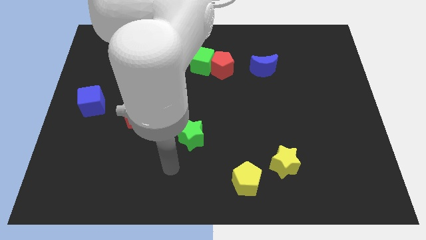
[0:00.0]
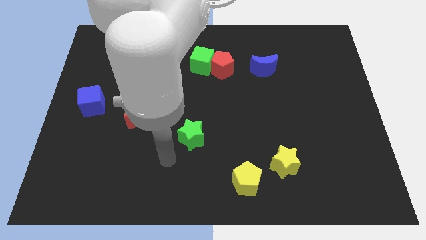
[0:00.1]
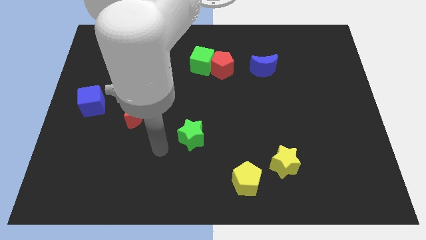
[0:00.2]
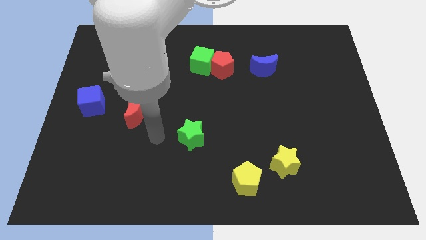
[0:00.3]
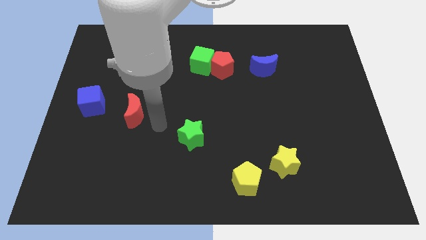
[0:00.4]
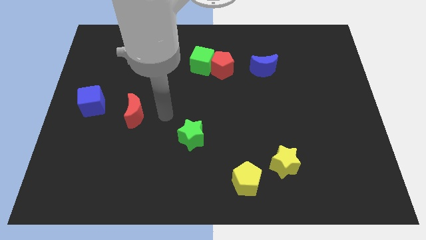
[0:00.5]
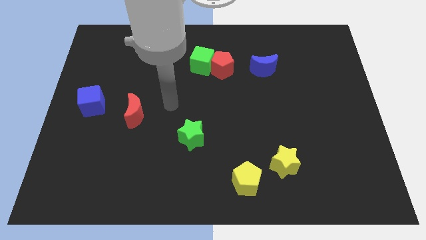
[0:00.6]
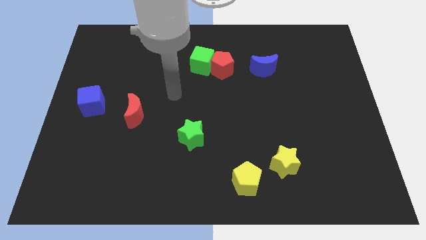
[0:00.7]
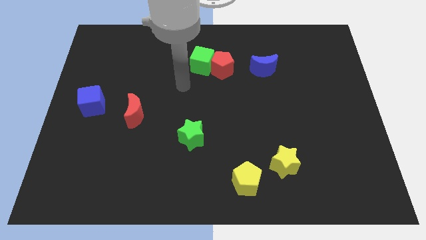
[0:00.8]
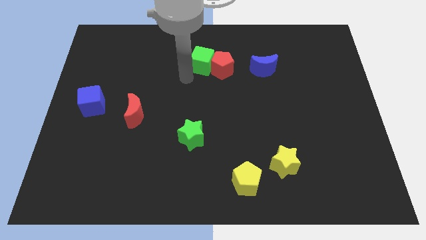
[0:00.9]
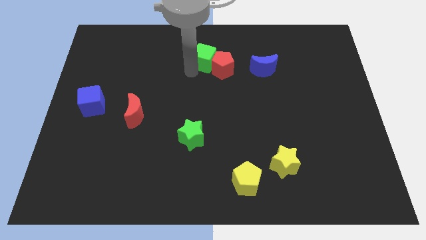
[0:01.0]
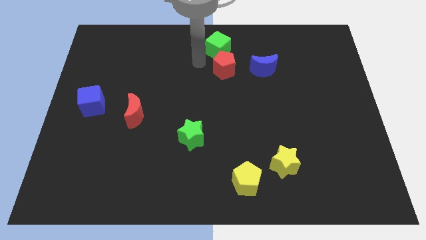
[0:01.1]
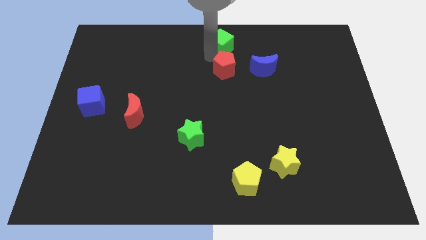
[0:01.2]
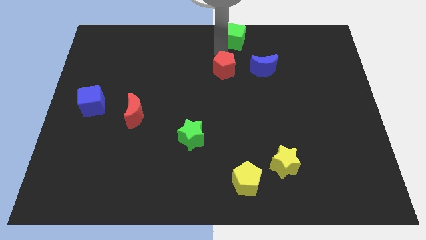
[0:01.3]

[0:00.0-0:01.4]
move the red pentagon away from the green cube

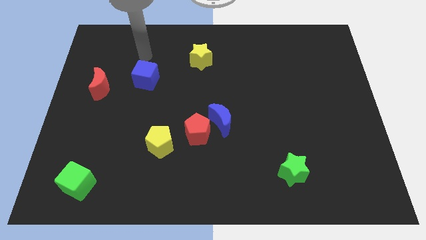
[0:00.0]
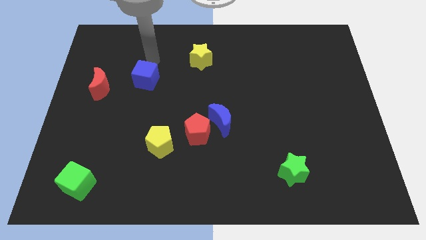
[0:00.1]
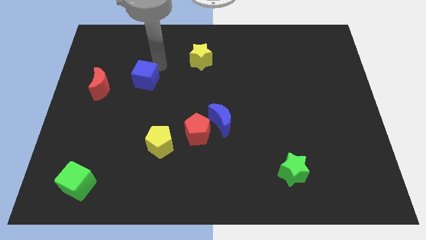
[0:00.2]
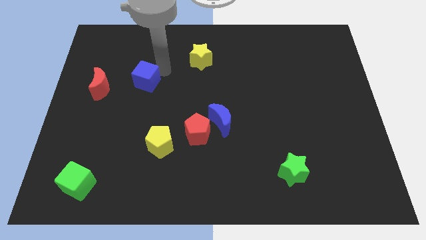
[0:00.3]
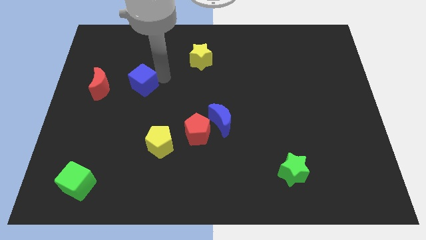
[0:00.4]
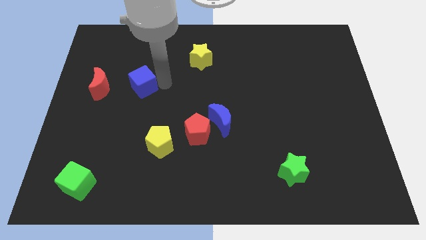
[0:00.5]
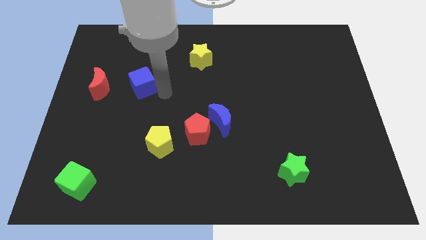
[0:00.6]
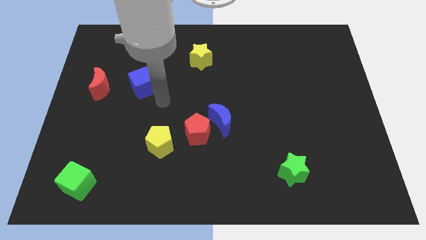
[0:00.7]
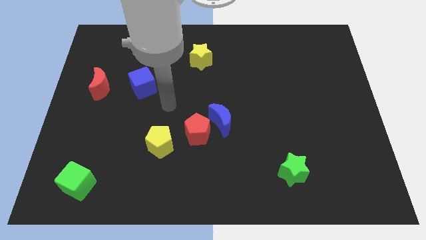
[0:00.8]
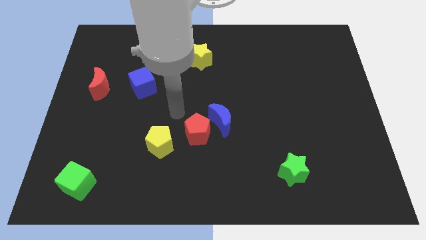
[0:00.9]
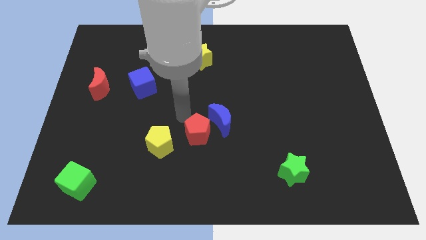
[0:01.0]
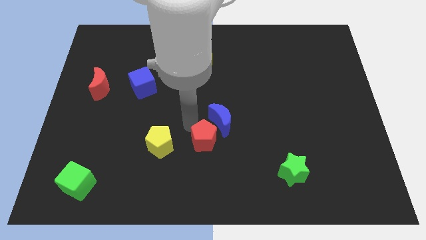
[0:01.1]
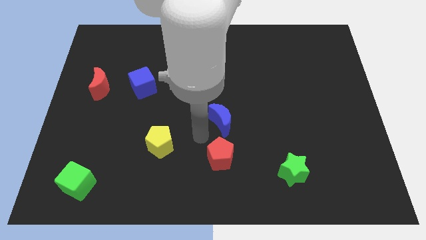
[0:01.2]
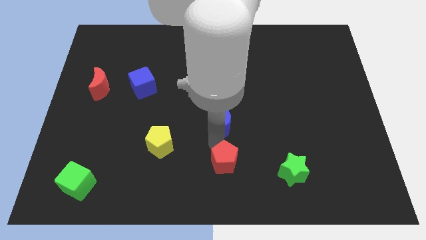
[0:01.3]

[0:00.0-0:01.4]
move the blue moon away from the red pentagon

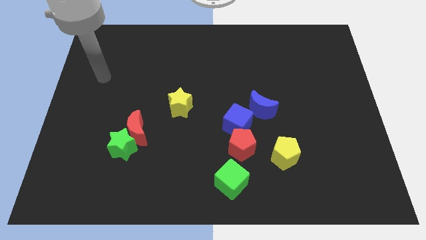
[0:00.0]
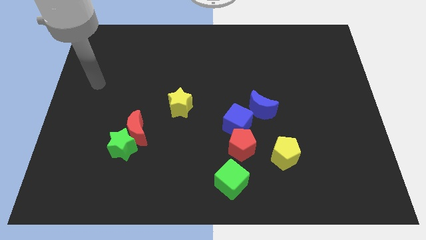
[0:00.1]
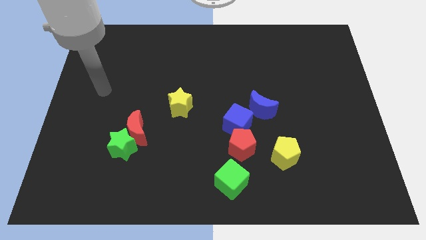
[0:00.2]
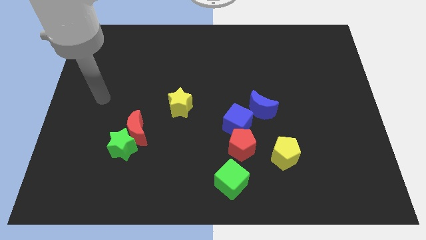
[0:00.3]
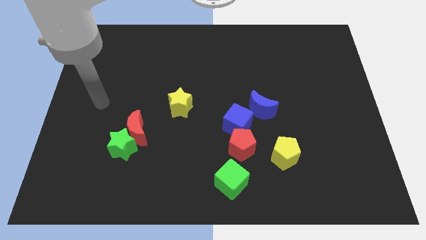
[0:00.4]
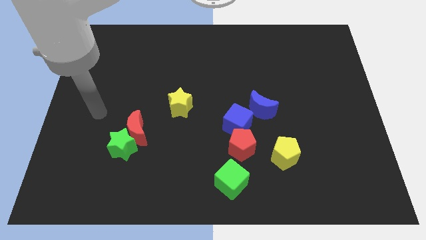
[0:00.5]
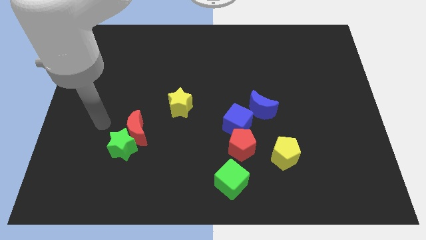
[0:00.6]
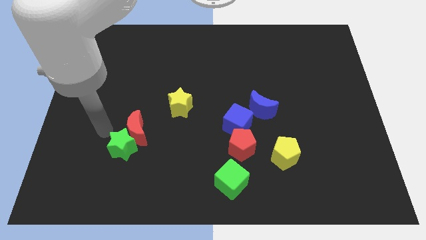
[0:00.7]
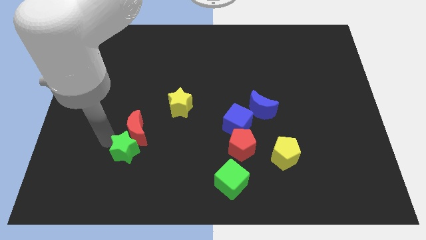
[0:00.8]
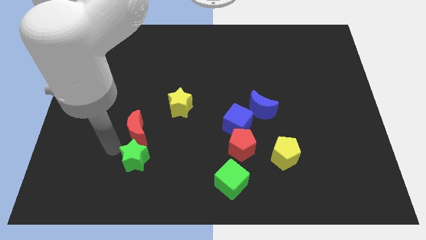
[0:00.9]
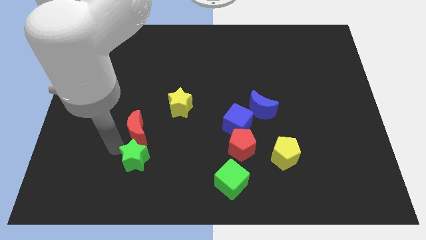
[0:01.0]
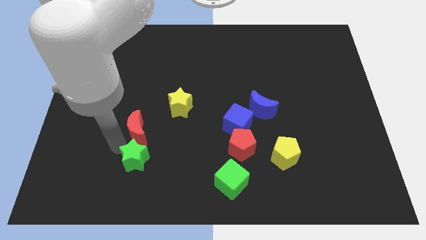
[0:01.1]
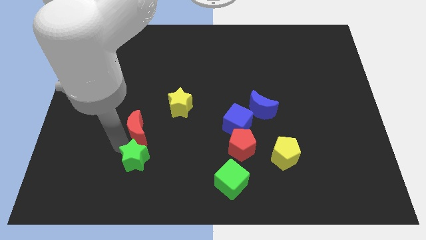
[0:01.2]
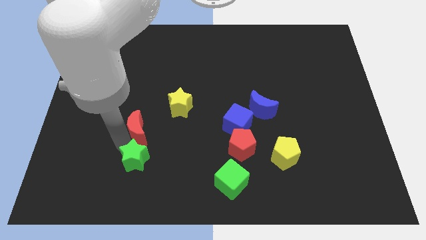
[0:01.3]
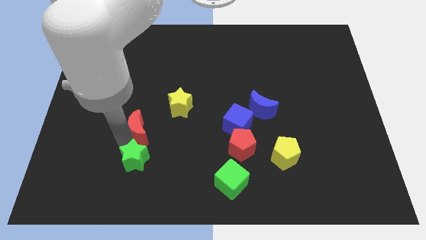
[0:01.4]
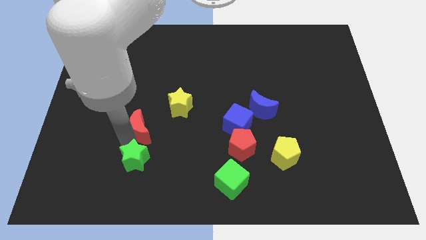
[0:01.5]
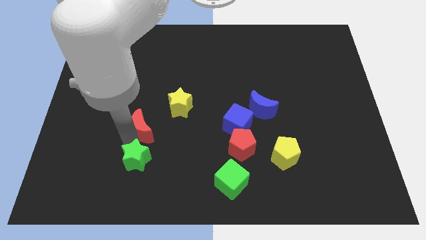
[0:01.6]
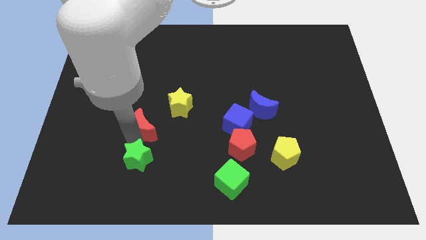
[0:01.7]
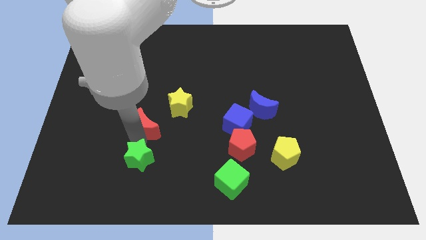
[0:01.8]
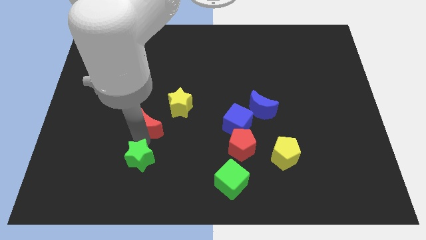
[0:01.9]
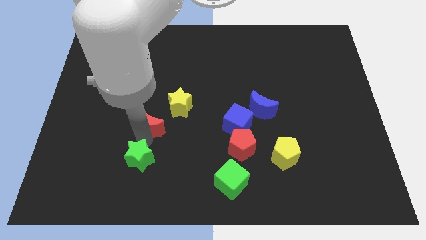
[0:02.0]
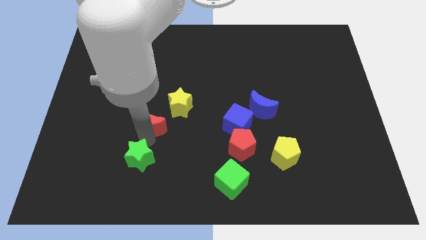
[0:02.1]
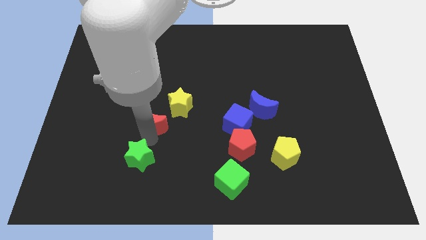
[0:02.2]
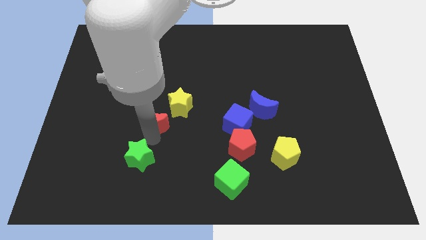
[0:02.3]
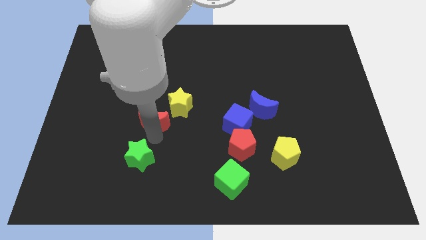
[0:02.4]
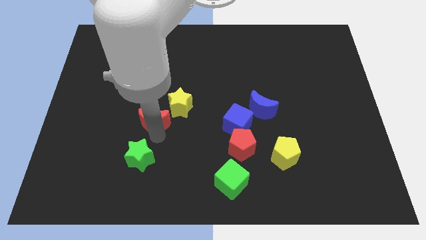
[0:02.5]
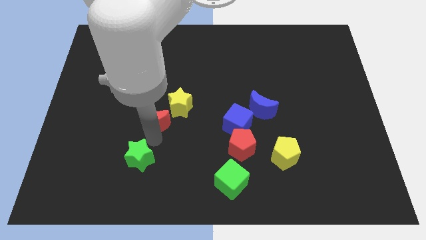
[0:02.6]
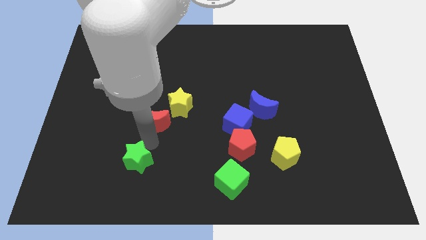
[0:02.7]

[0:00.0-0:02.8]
separate the red moon from the green star

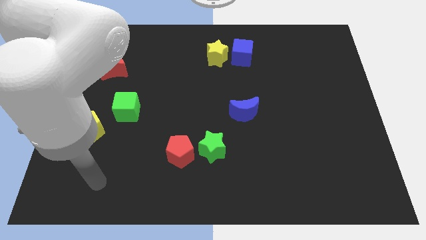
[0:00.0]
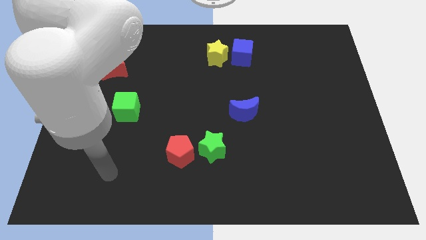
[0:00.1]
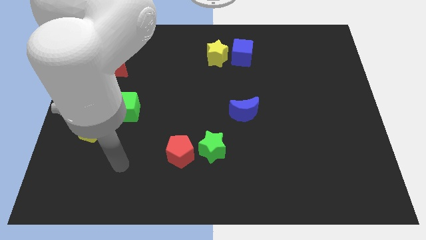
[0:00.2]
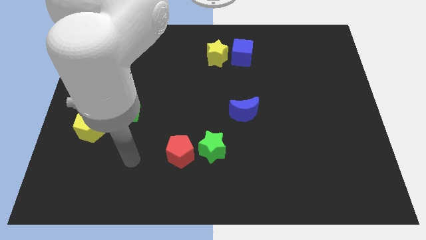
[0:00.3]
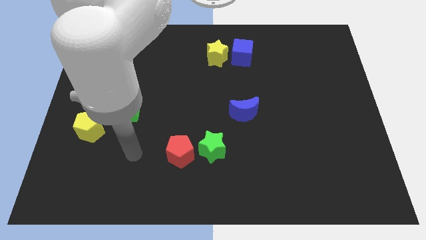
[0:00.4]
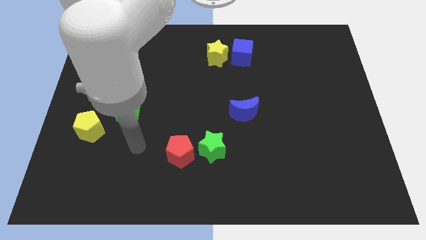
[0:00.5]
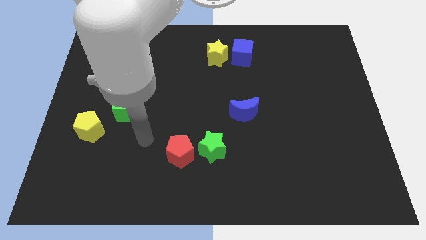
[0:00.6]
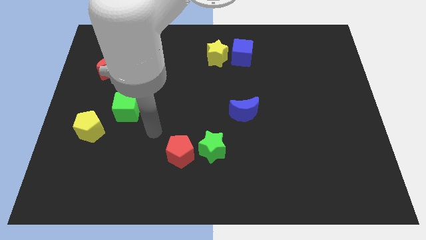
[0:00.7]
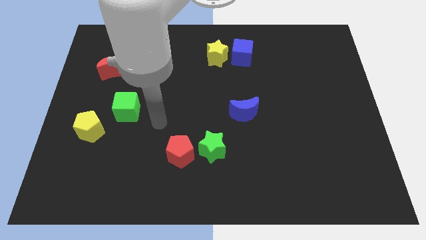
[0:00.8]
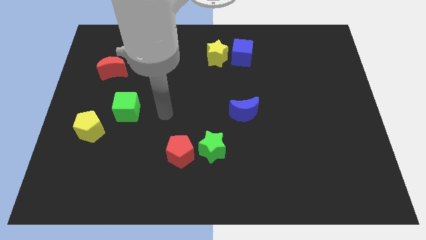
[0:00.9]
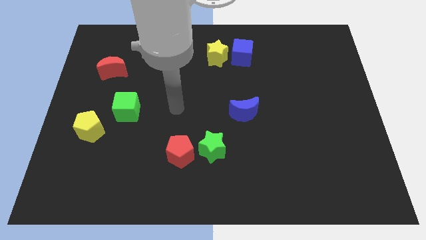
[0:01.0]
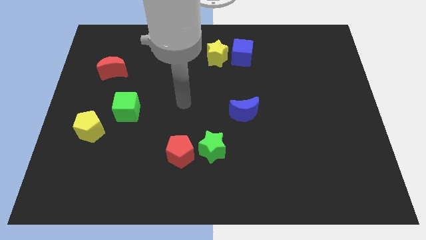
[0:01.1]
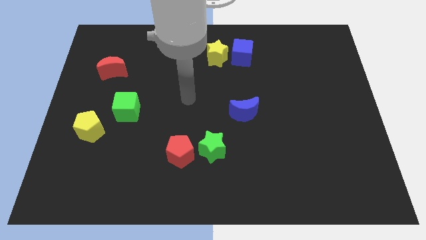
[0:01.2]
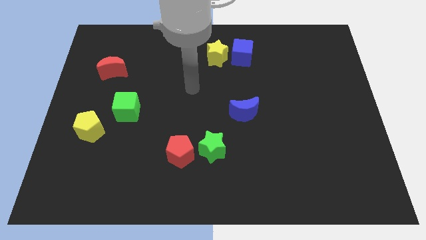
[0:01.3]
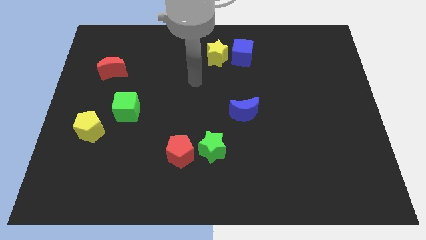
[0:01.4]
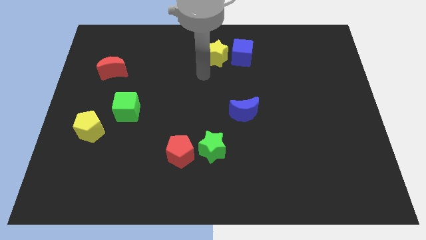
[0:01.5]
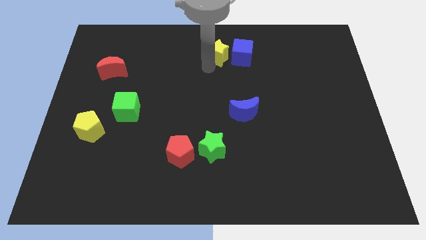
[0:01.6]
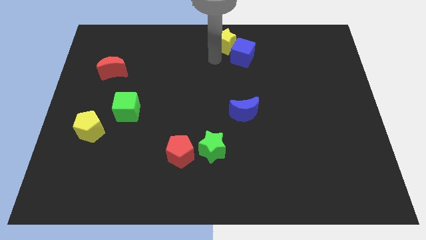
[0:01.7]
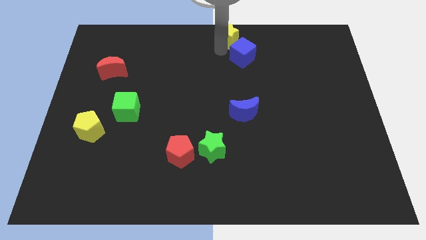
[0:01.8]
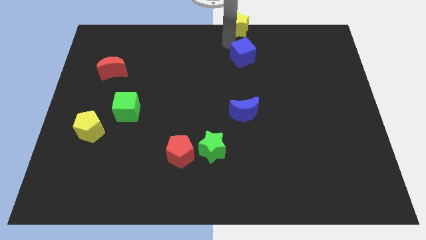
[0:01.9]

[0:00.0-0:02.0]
pull the blue cube apart from the yellow star

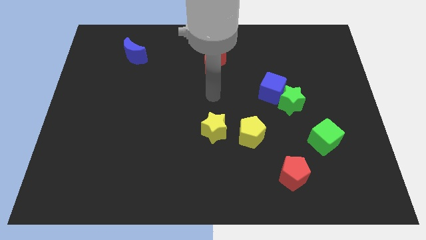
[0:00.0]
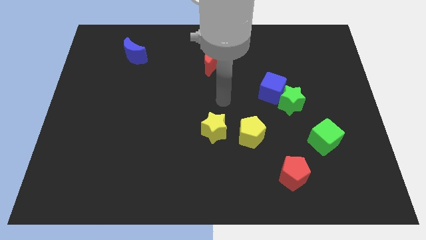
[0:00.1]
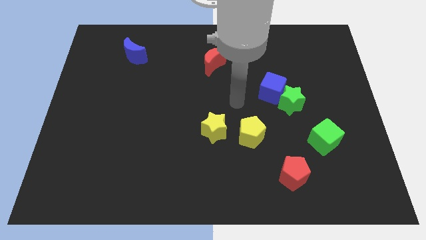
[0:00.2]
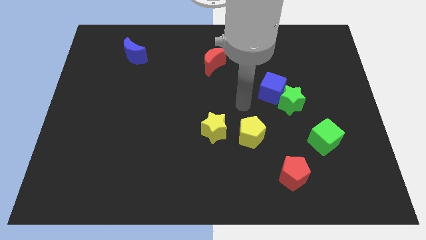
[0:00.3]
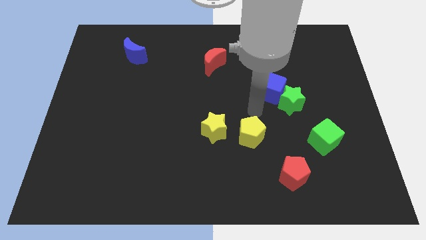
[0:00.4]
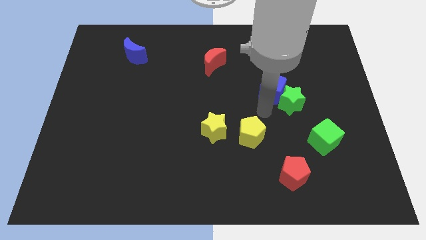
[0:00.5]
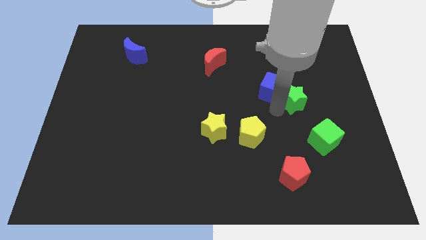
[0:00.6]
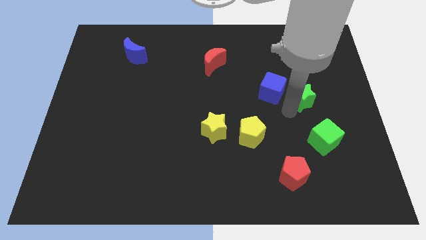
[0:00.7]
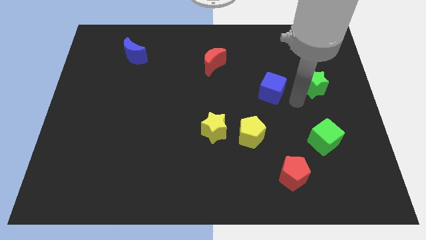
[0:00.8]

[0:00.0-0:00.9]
pull the blue cube apart from the green star

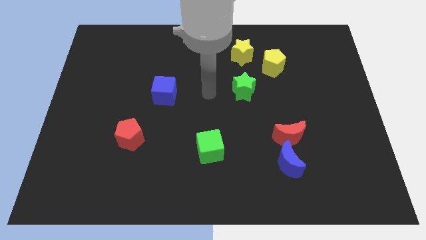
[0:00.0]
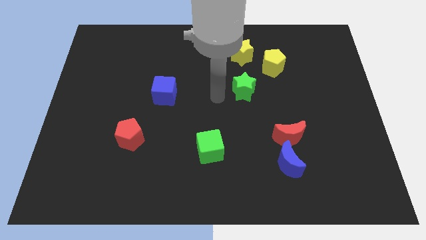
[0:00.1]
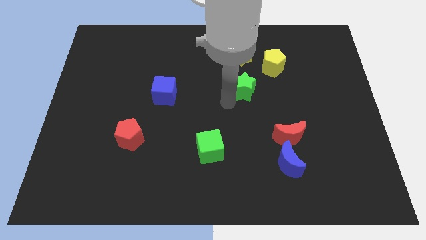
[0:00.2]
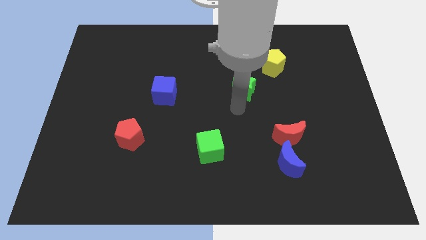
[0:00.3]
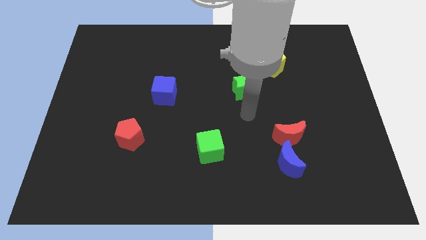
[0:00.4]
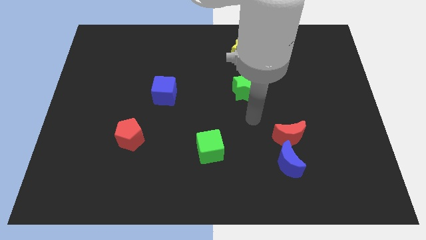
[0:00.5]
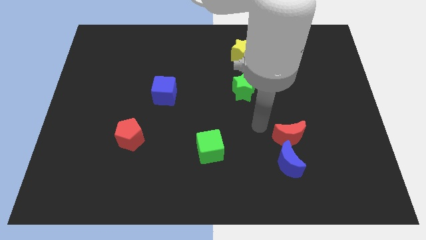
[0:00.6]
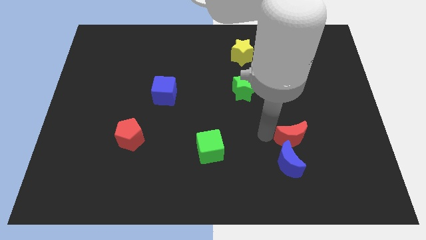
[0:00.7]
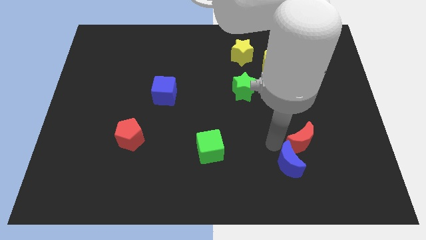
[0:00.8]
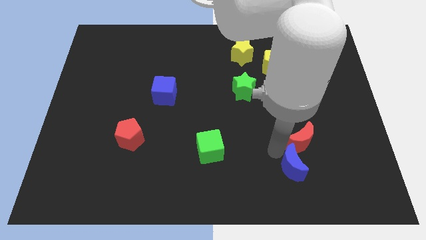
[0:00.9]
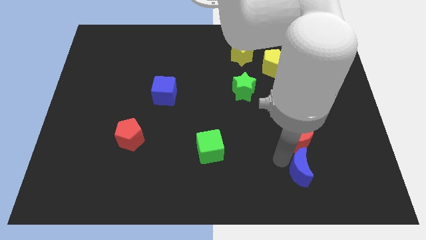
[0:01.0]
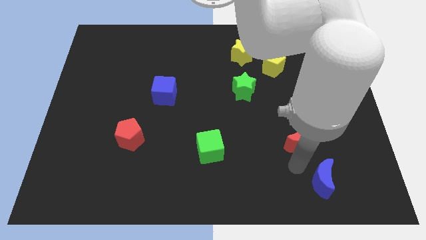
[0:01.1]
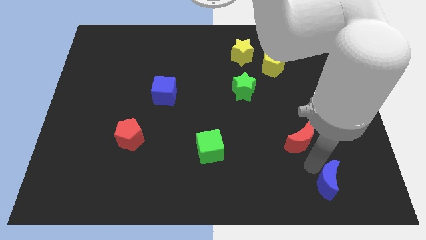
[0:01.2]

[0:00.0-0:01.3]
move the red moon away from the blue moon
